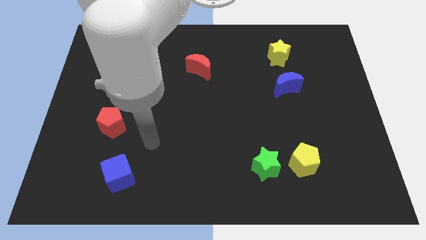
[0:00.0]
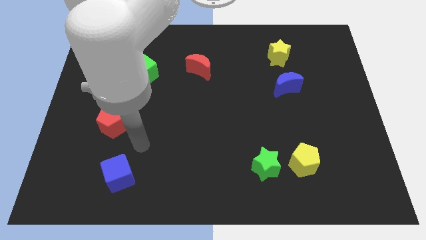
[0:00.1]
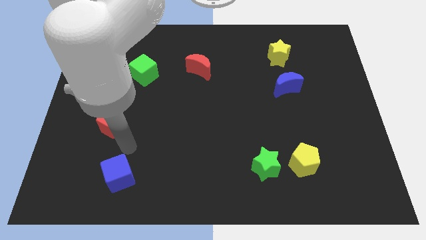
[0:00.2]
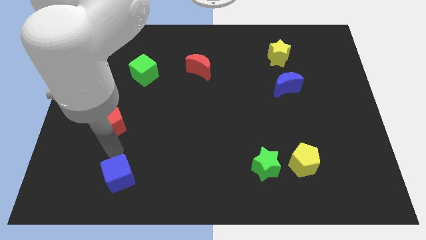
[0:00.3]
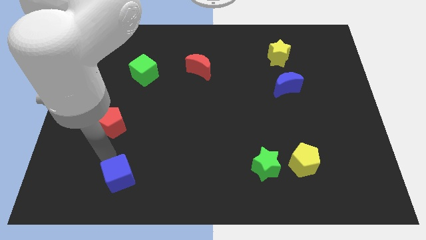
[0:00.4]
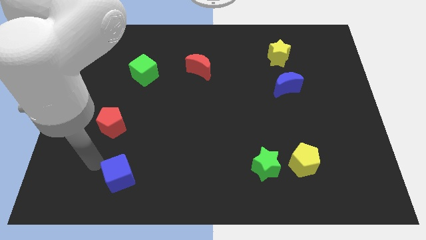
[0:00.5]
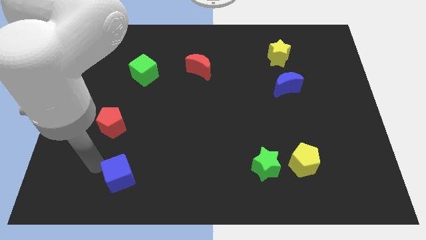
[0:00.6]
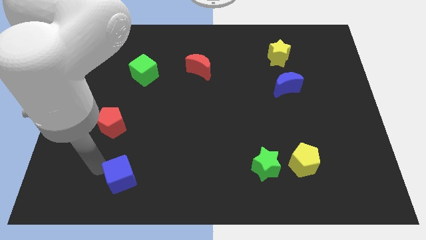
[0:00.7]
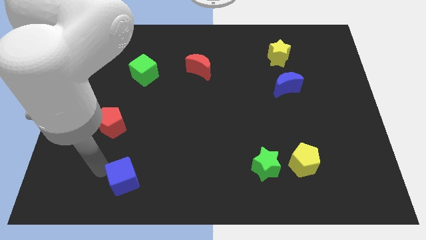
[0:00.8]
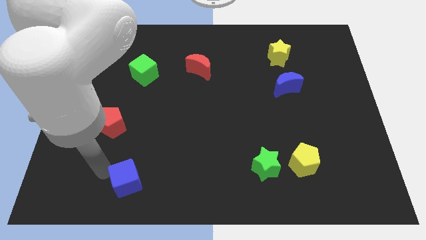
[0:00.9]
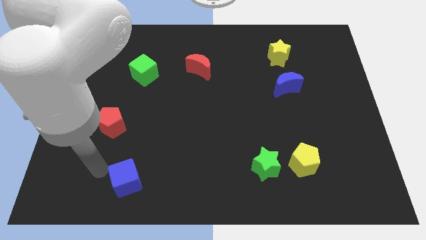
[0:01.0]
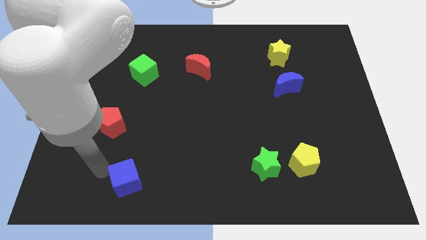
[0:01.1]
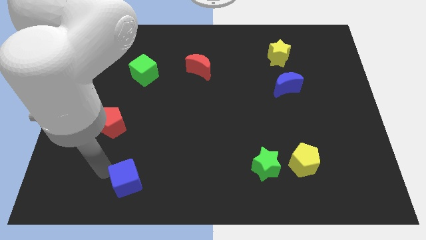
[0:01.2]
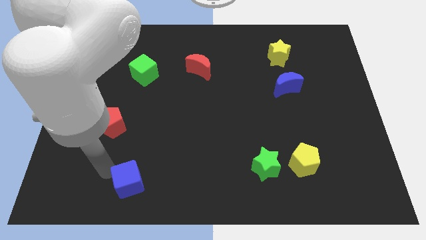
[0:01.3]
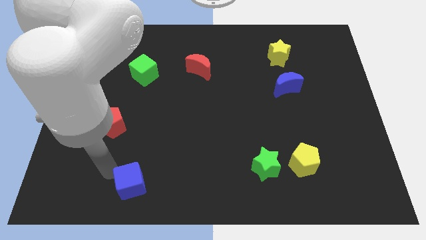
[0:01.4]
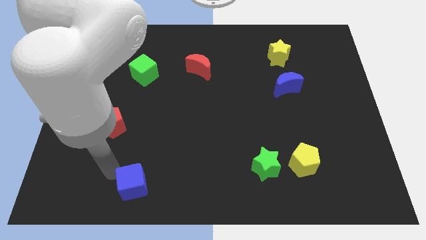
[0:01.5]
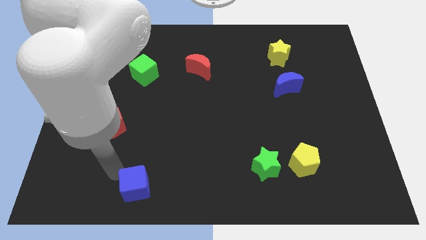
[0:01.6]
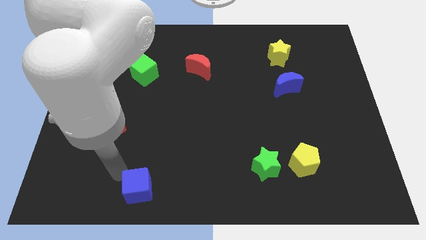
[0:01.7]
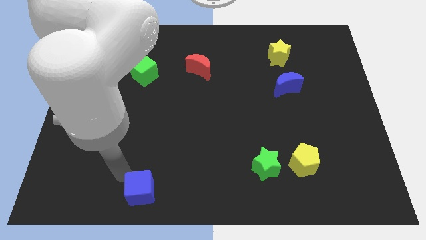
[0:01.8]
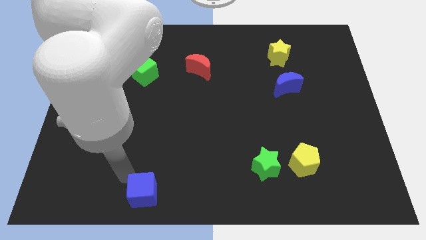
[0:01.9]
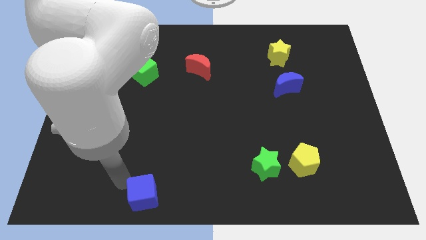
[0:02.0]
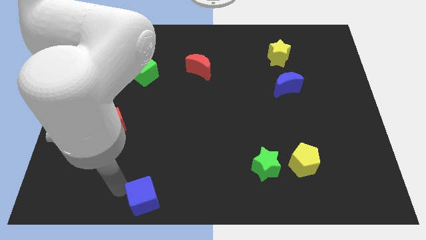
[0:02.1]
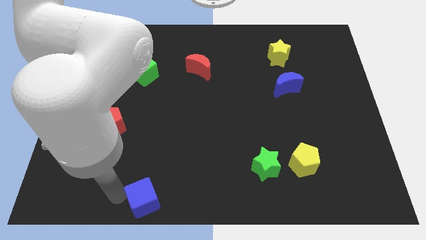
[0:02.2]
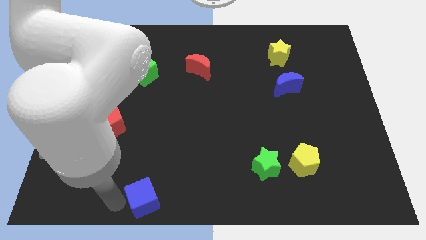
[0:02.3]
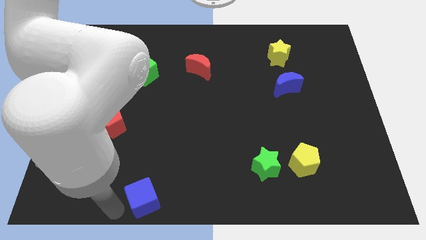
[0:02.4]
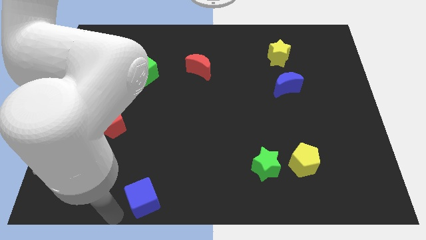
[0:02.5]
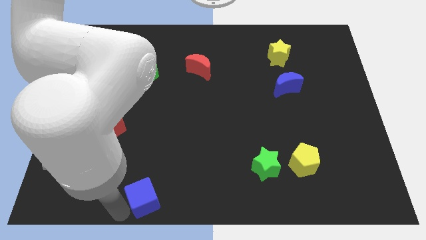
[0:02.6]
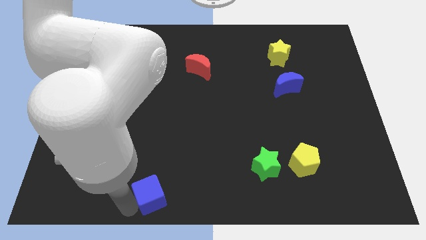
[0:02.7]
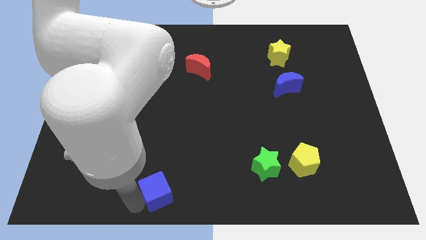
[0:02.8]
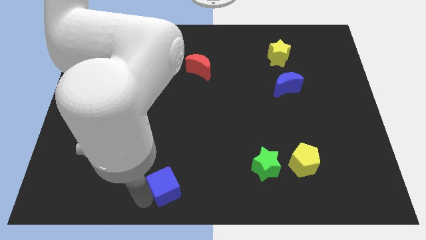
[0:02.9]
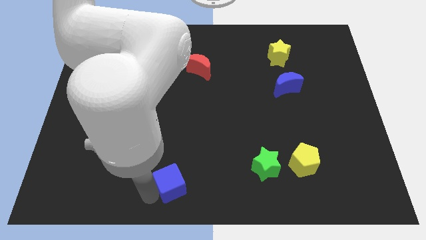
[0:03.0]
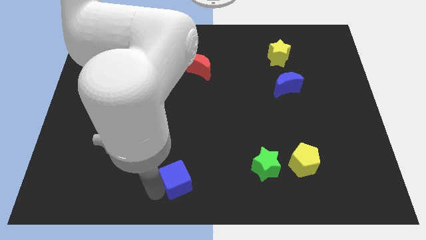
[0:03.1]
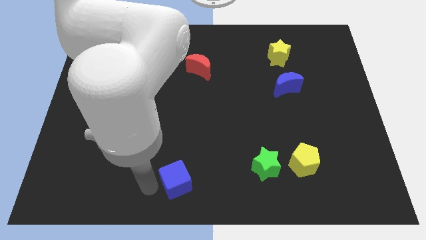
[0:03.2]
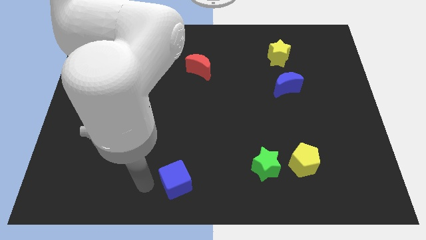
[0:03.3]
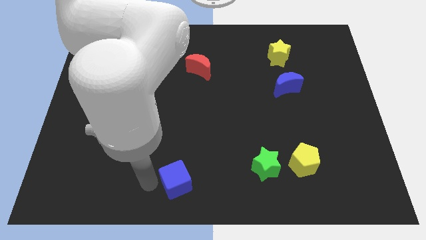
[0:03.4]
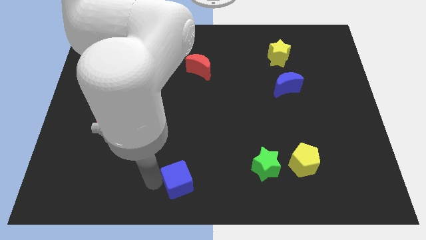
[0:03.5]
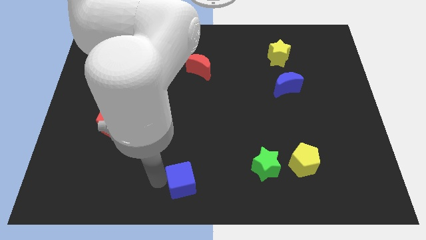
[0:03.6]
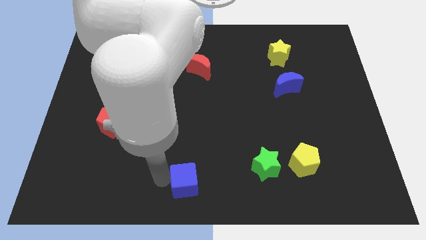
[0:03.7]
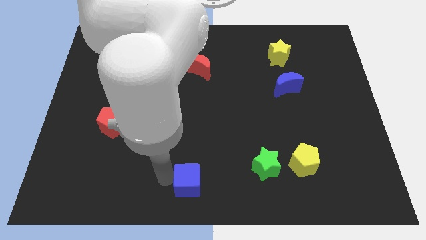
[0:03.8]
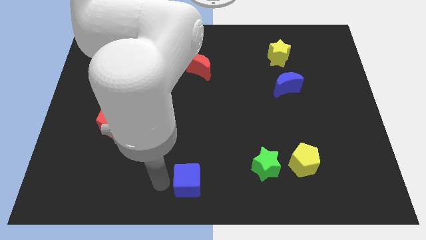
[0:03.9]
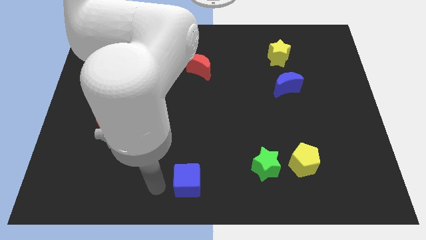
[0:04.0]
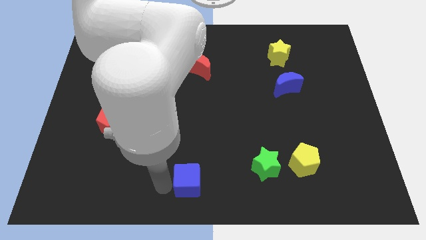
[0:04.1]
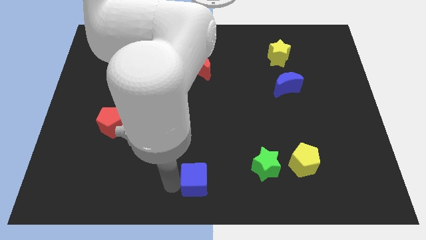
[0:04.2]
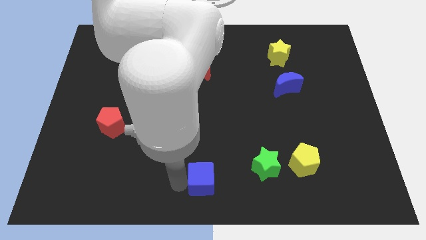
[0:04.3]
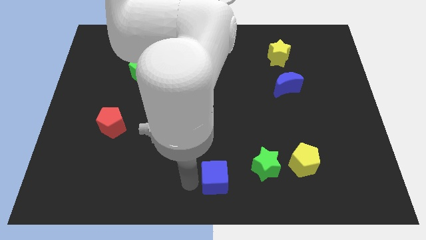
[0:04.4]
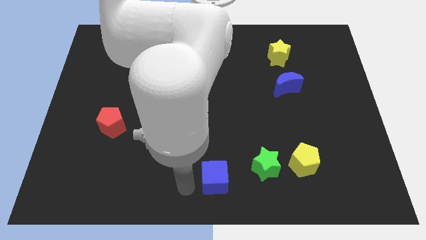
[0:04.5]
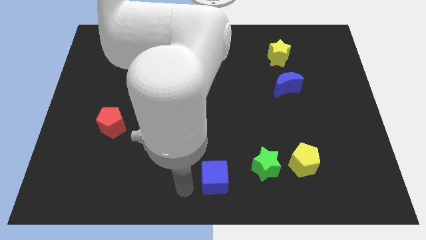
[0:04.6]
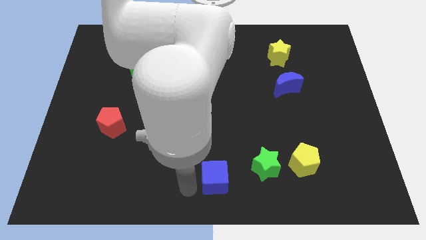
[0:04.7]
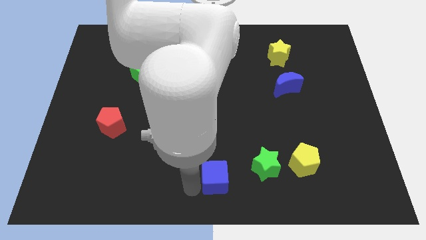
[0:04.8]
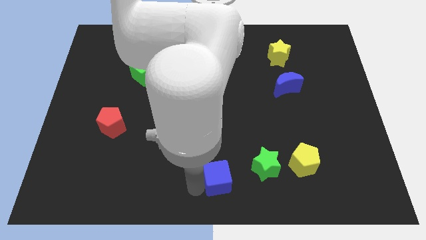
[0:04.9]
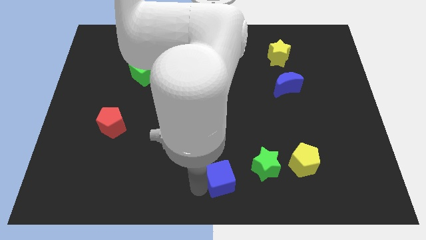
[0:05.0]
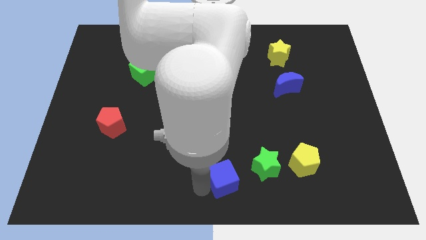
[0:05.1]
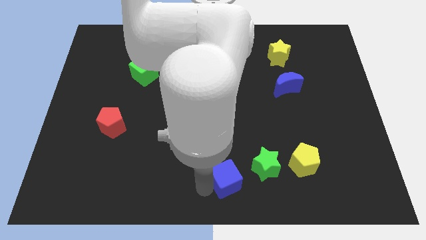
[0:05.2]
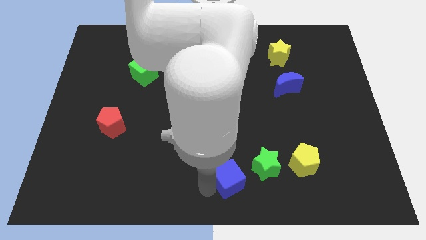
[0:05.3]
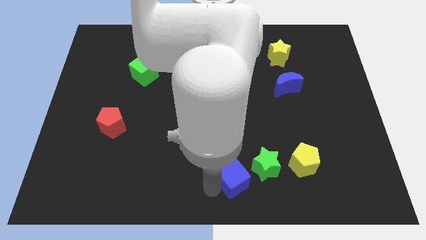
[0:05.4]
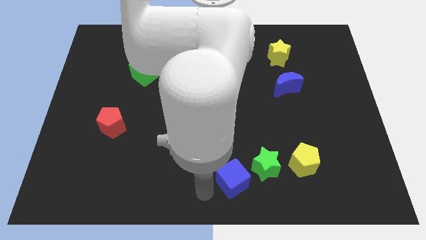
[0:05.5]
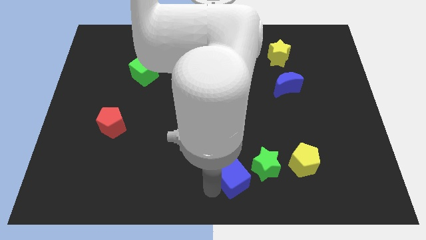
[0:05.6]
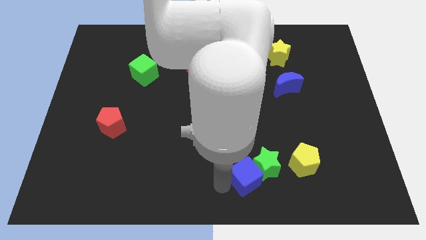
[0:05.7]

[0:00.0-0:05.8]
move the blue cube towards the green star

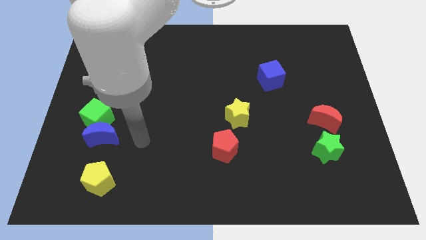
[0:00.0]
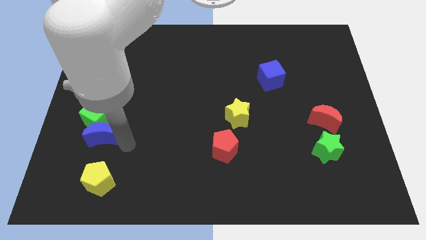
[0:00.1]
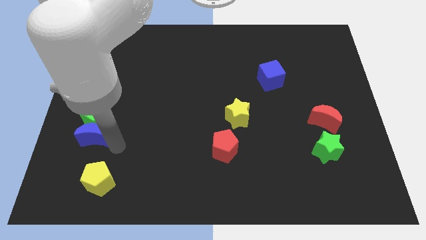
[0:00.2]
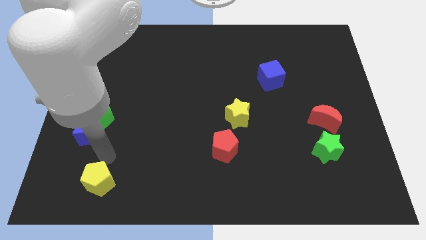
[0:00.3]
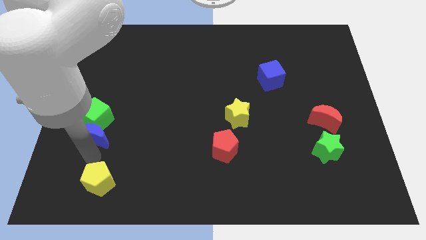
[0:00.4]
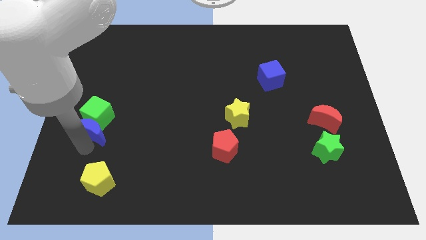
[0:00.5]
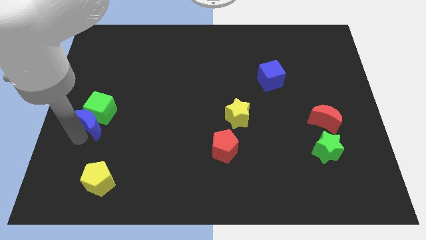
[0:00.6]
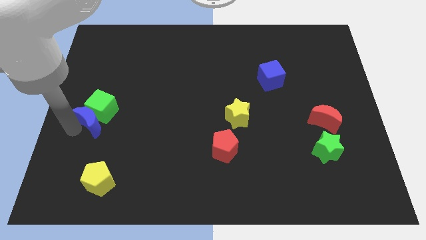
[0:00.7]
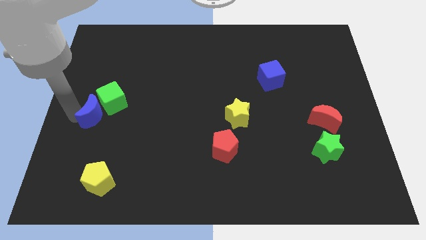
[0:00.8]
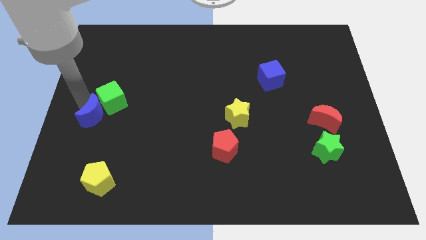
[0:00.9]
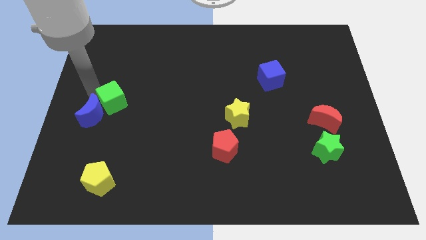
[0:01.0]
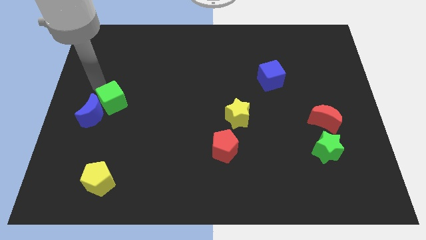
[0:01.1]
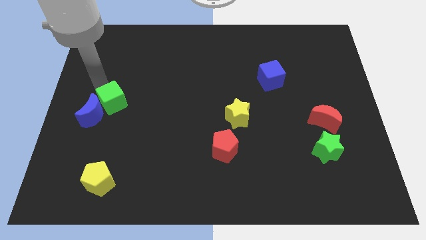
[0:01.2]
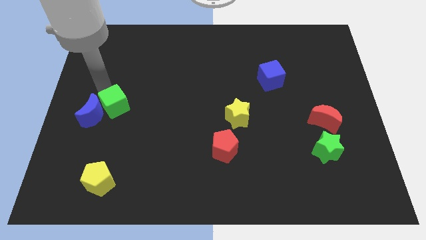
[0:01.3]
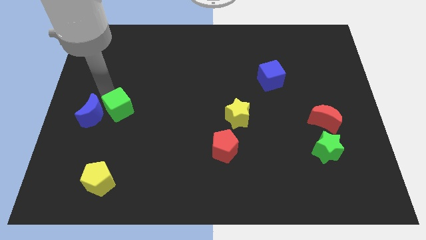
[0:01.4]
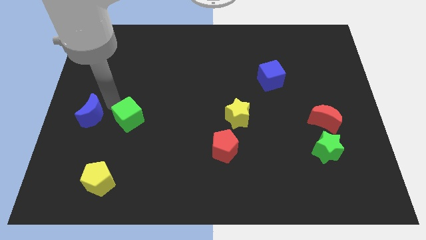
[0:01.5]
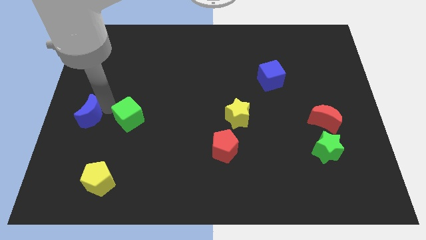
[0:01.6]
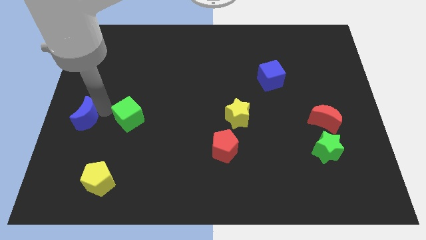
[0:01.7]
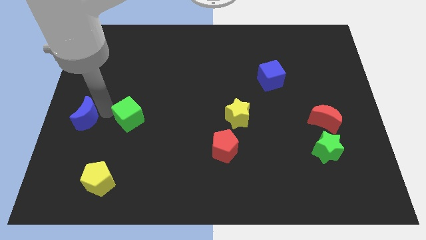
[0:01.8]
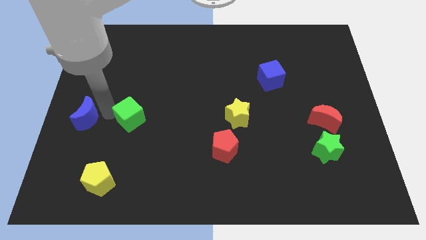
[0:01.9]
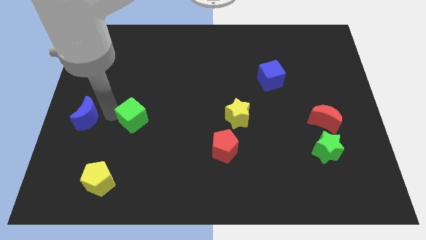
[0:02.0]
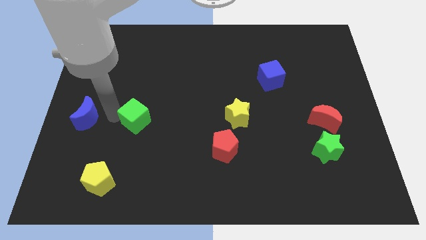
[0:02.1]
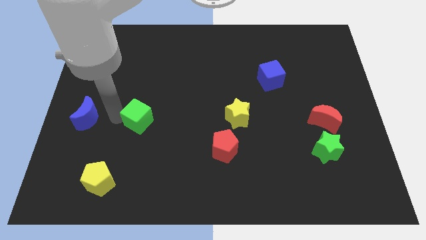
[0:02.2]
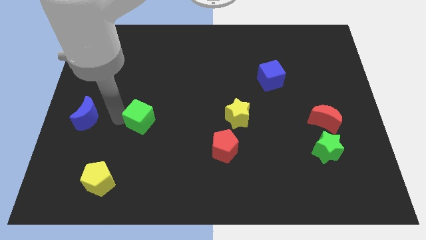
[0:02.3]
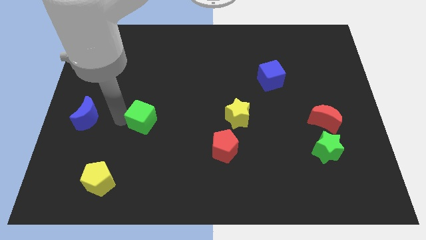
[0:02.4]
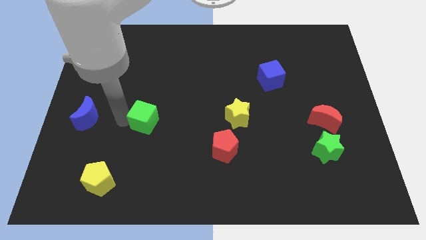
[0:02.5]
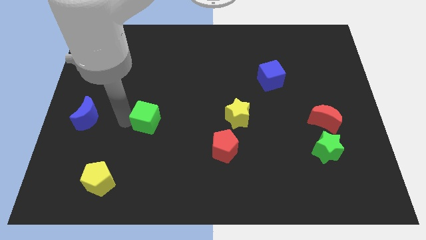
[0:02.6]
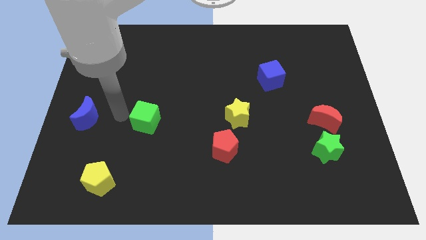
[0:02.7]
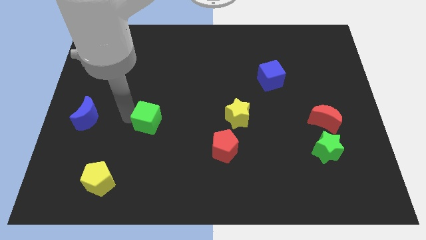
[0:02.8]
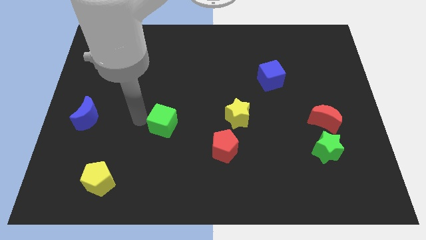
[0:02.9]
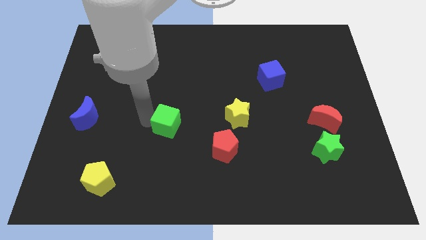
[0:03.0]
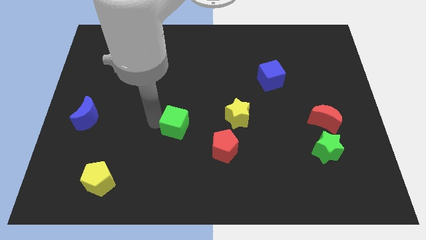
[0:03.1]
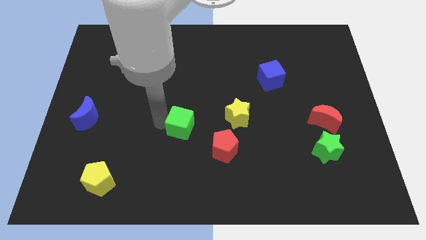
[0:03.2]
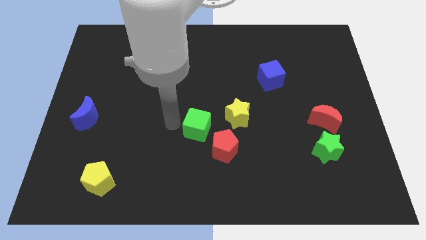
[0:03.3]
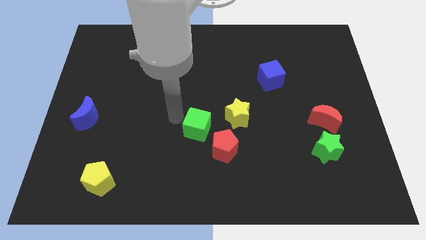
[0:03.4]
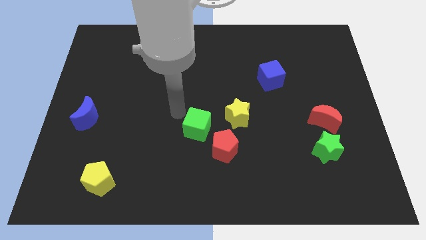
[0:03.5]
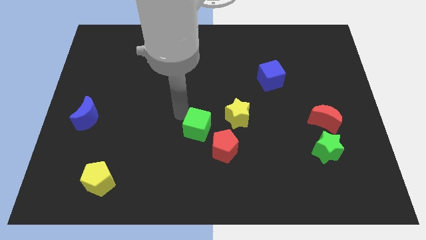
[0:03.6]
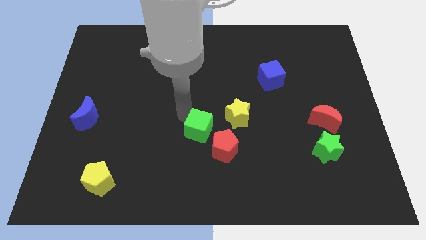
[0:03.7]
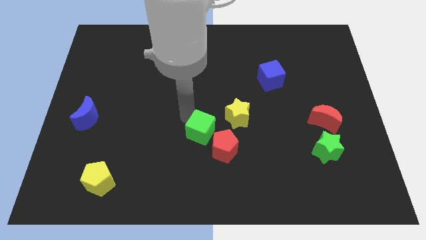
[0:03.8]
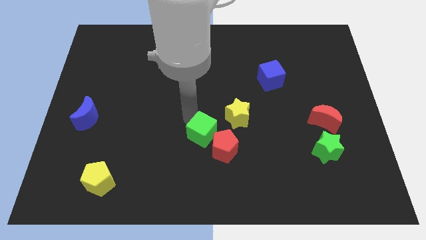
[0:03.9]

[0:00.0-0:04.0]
move the green cube to the red pentagon
